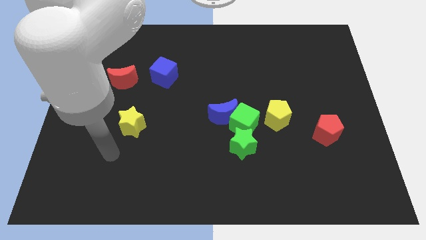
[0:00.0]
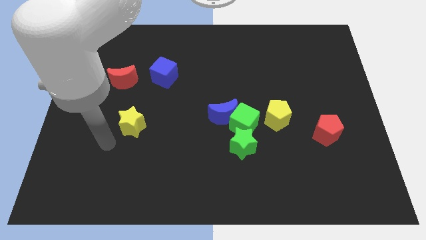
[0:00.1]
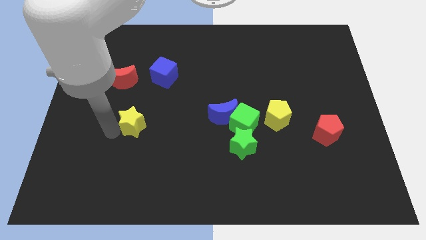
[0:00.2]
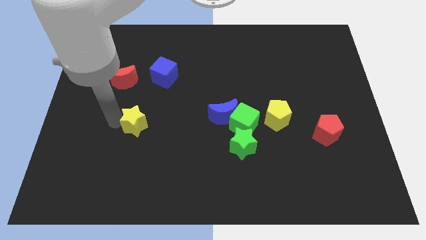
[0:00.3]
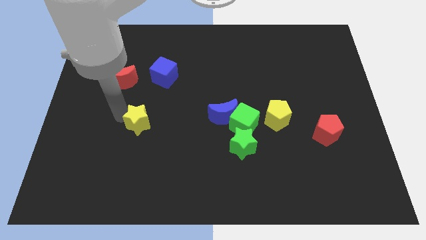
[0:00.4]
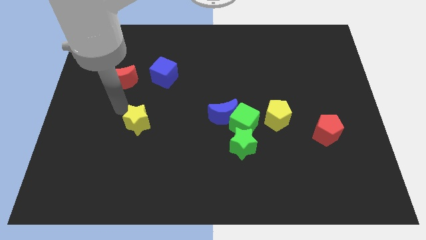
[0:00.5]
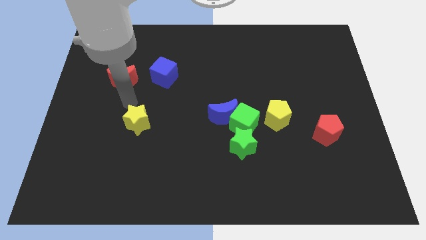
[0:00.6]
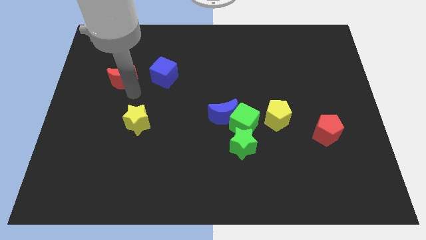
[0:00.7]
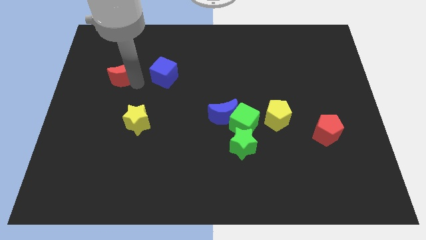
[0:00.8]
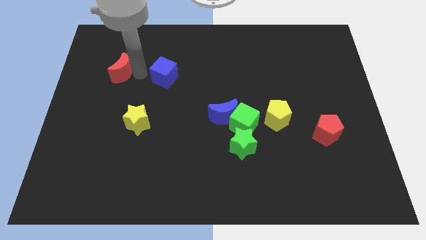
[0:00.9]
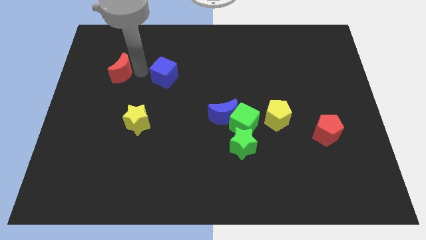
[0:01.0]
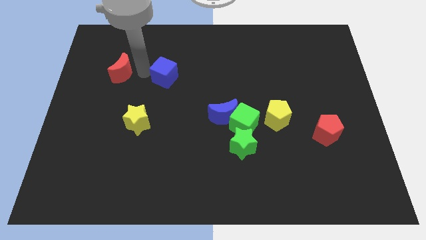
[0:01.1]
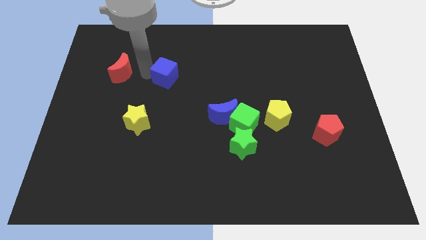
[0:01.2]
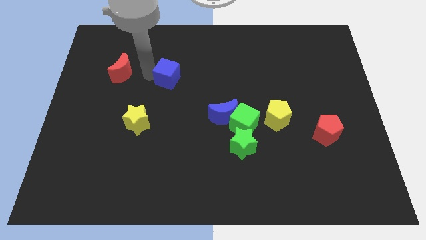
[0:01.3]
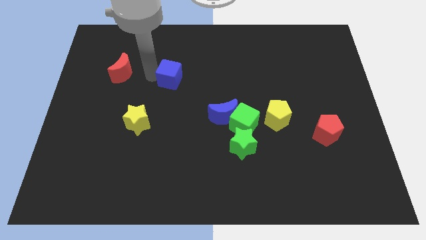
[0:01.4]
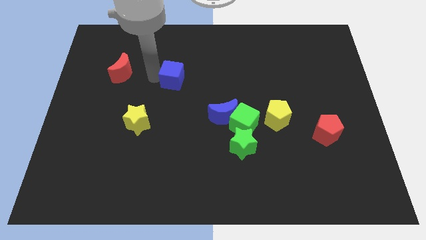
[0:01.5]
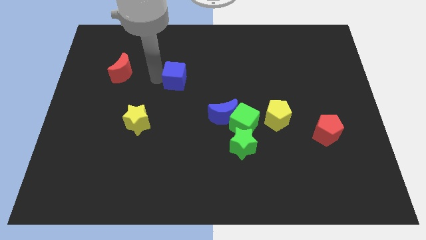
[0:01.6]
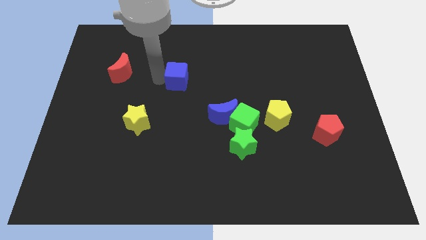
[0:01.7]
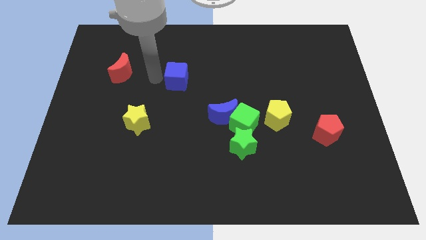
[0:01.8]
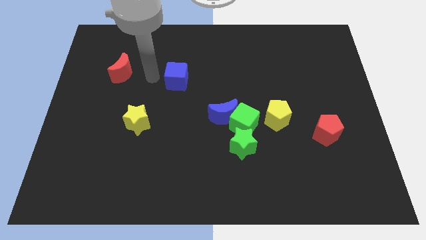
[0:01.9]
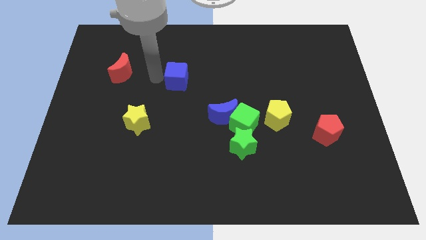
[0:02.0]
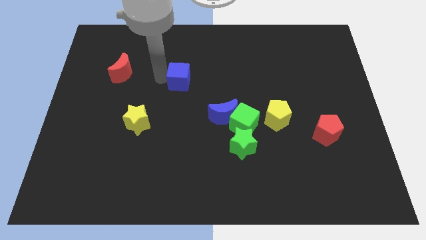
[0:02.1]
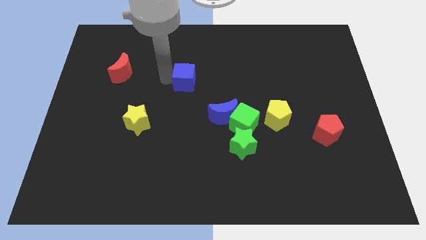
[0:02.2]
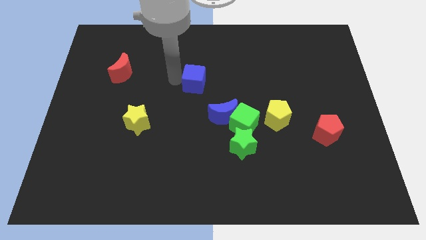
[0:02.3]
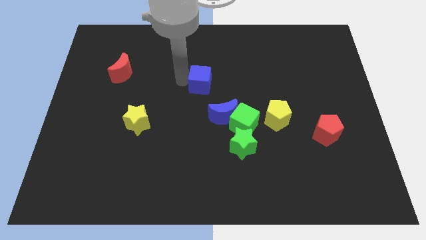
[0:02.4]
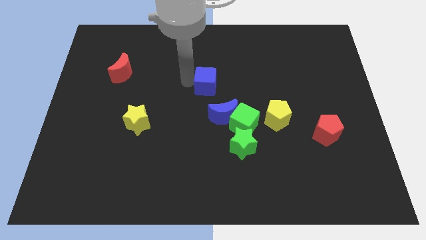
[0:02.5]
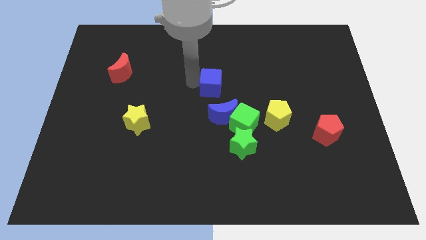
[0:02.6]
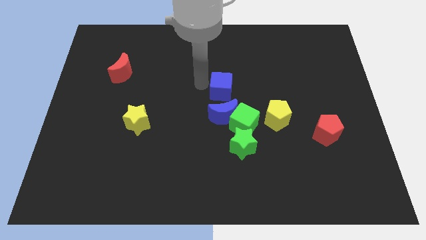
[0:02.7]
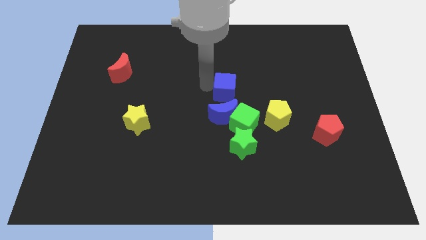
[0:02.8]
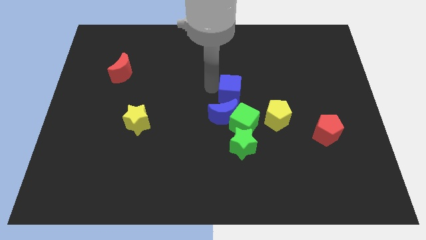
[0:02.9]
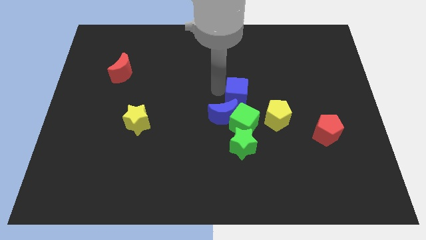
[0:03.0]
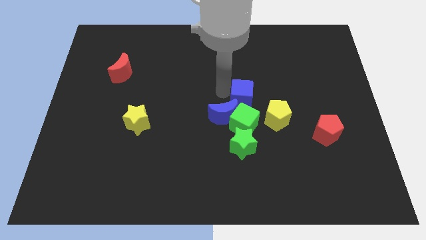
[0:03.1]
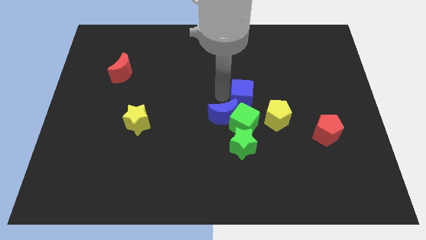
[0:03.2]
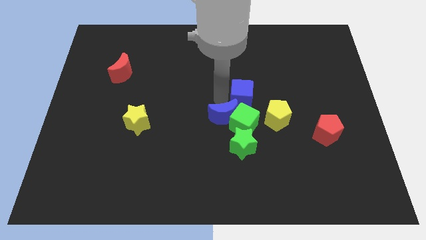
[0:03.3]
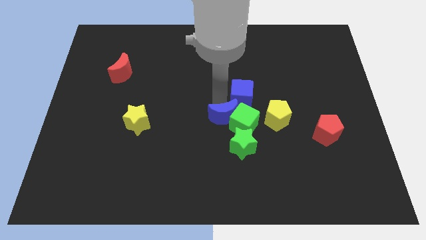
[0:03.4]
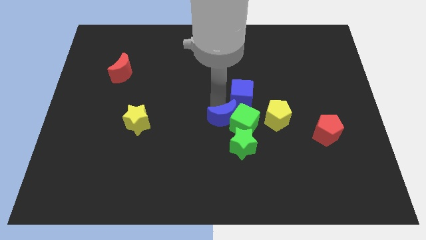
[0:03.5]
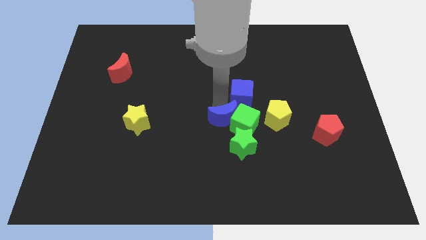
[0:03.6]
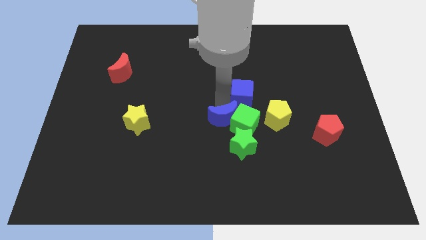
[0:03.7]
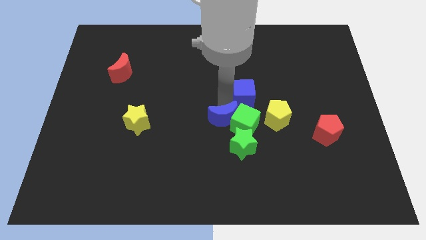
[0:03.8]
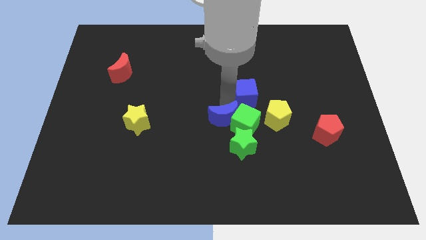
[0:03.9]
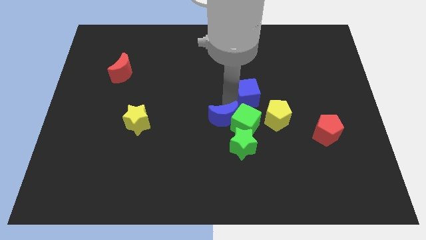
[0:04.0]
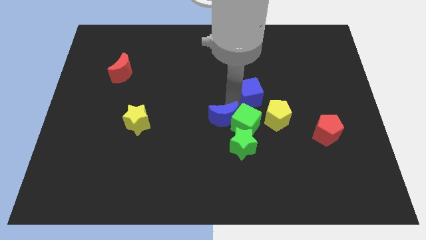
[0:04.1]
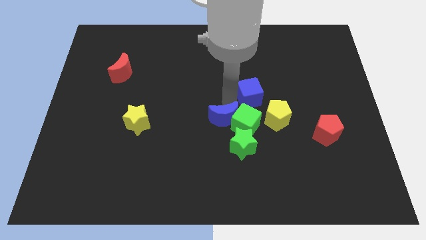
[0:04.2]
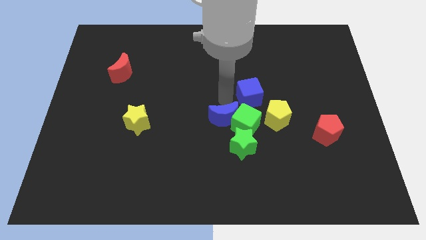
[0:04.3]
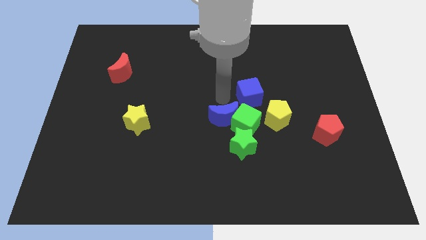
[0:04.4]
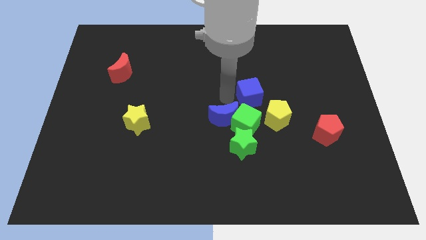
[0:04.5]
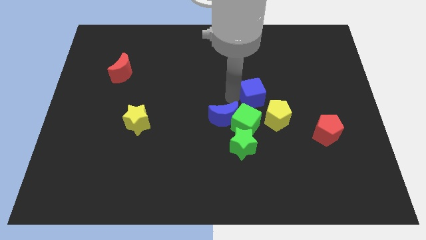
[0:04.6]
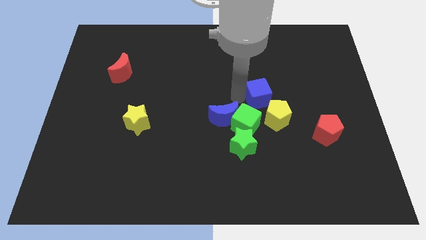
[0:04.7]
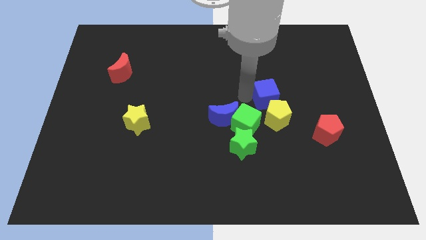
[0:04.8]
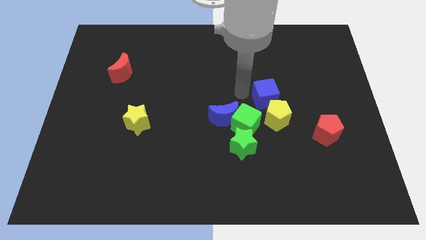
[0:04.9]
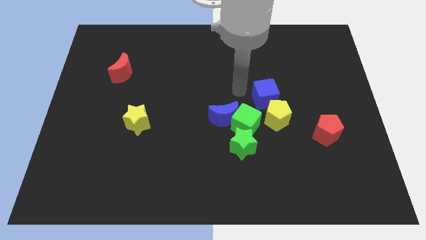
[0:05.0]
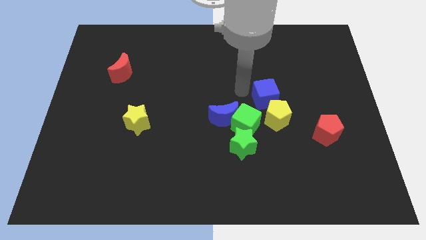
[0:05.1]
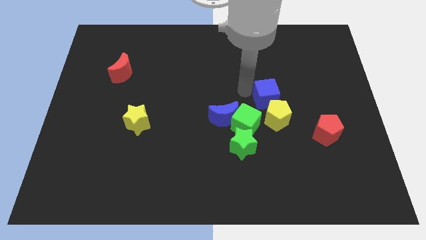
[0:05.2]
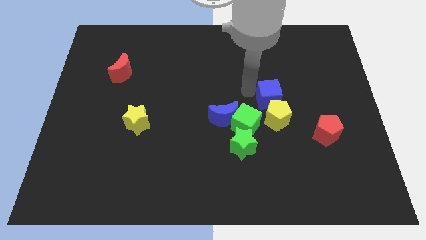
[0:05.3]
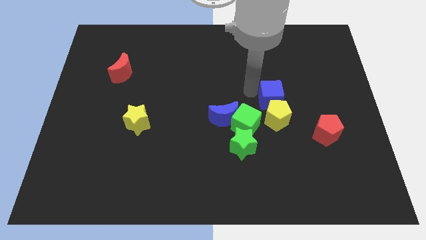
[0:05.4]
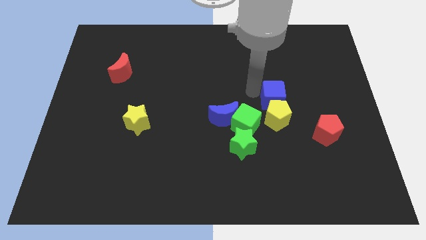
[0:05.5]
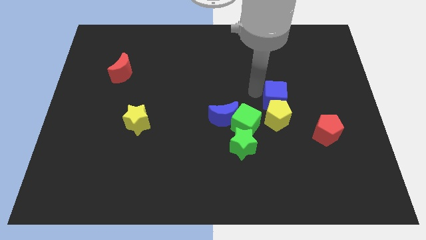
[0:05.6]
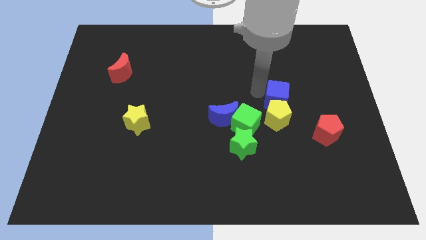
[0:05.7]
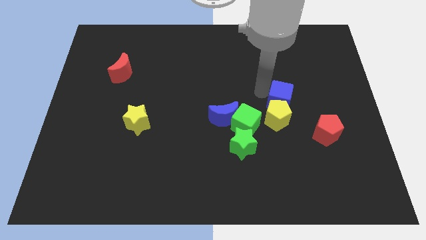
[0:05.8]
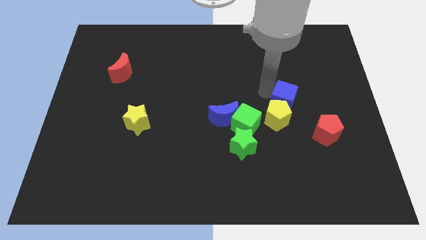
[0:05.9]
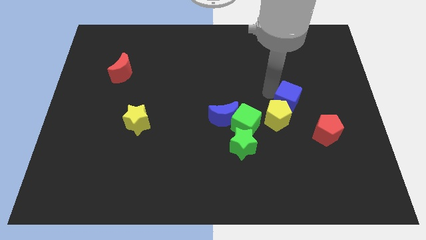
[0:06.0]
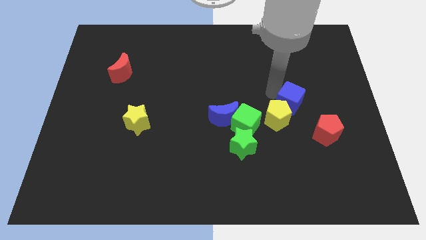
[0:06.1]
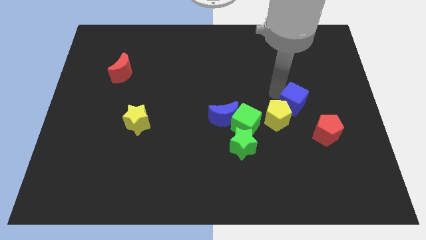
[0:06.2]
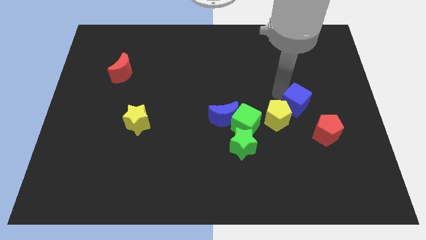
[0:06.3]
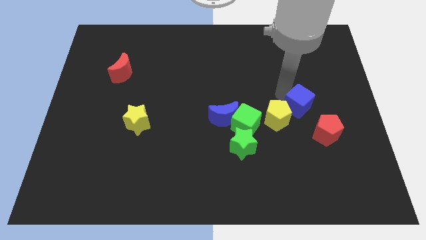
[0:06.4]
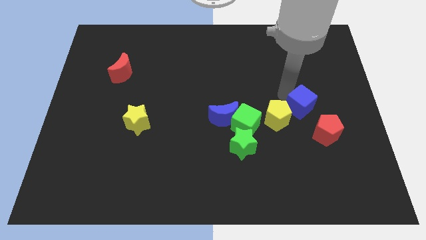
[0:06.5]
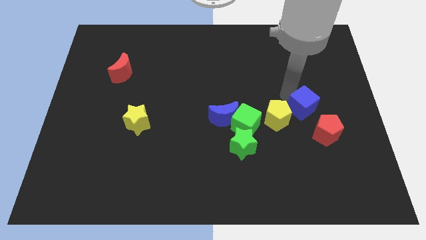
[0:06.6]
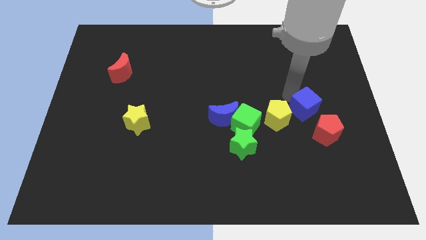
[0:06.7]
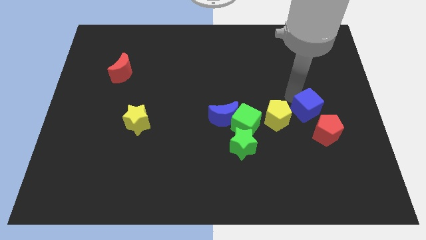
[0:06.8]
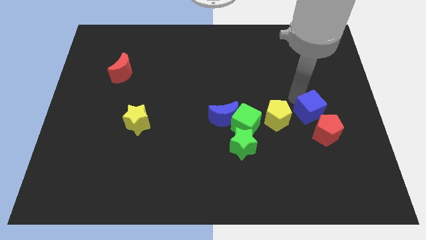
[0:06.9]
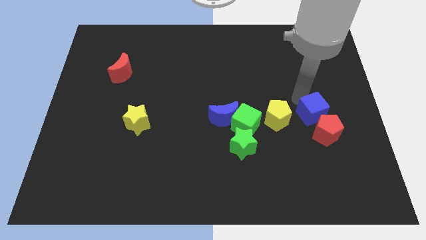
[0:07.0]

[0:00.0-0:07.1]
slide the blue cube to the red pentagon

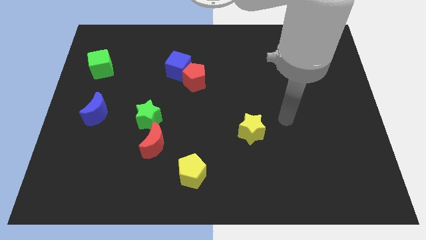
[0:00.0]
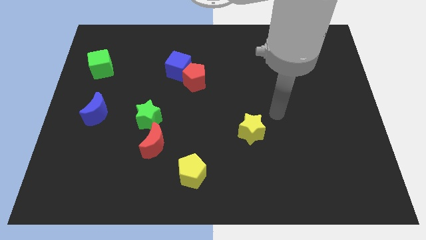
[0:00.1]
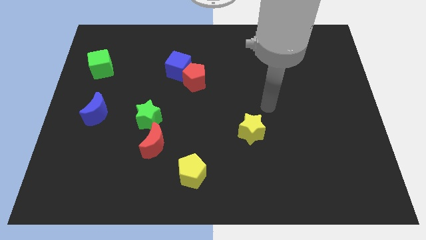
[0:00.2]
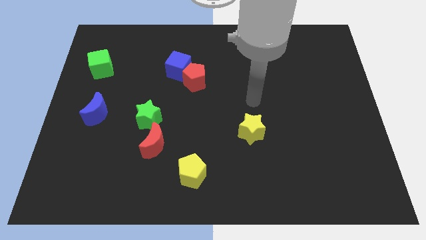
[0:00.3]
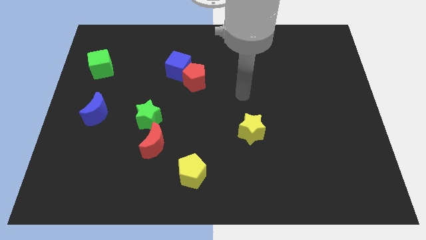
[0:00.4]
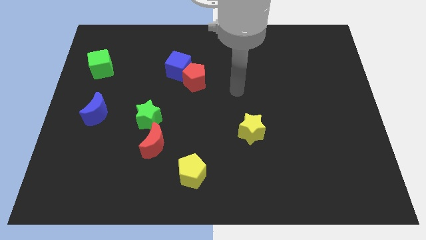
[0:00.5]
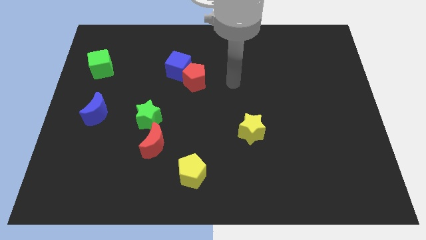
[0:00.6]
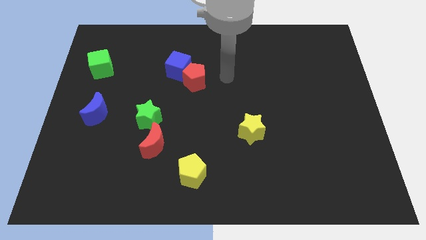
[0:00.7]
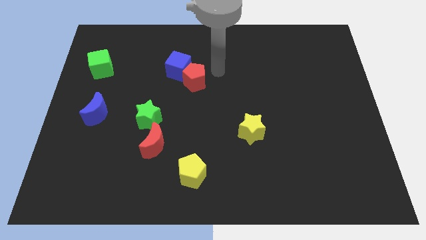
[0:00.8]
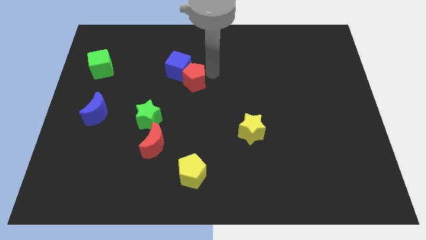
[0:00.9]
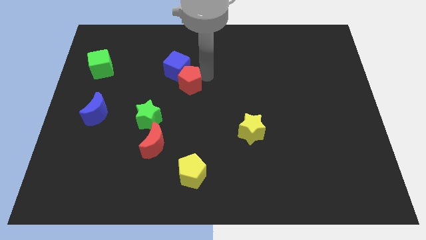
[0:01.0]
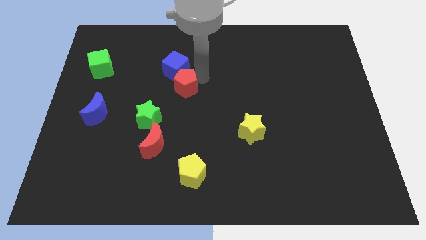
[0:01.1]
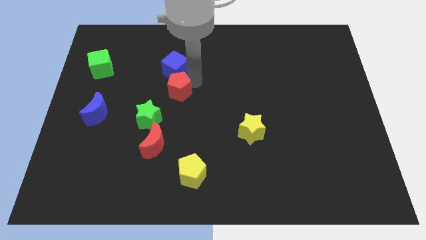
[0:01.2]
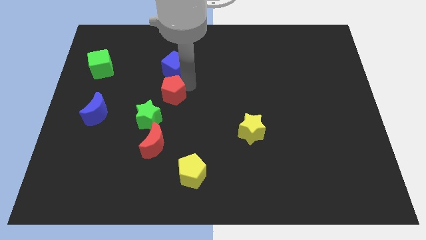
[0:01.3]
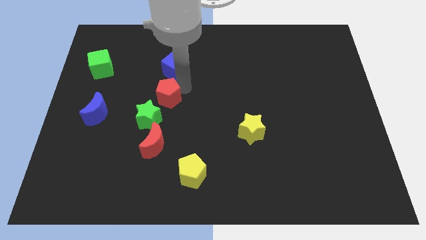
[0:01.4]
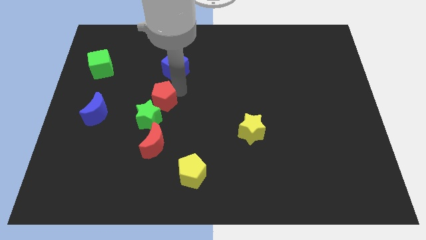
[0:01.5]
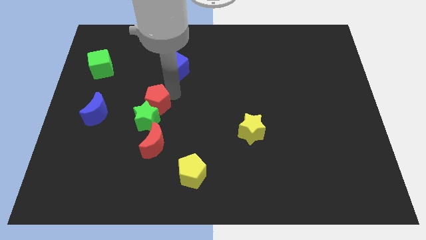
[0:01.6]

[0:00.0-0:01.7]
move the red pentagon towards the green star
